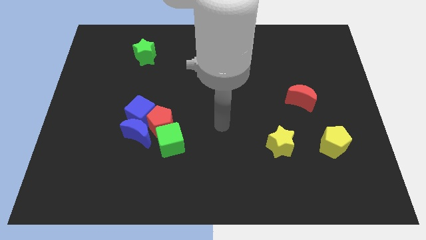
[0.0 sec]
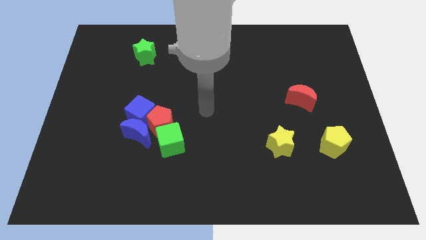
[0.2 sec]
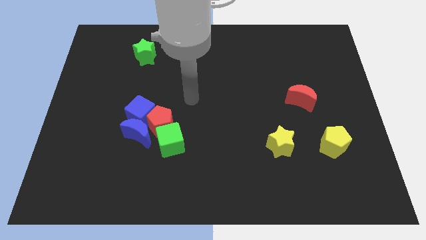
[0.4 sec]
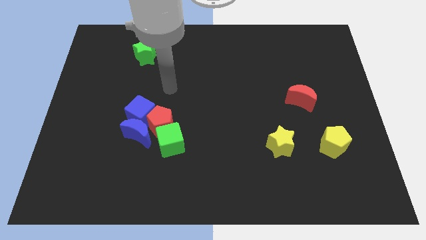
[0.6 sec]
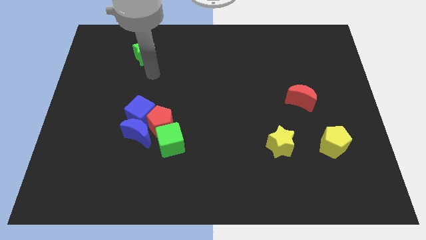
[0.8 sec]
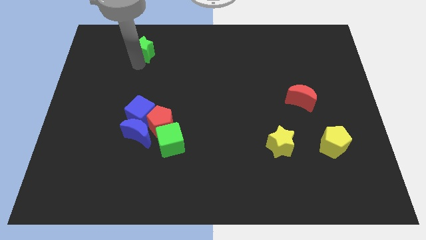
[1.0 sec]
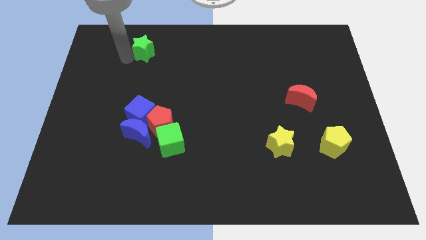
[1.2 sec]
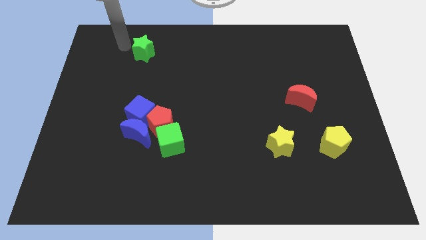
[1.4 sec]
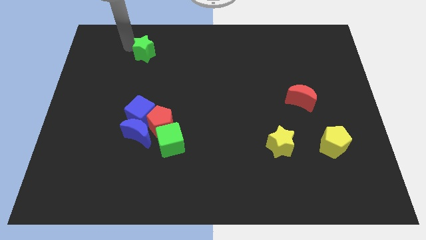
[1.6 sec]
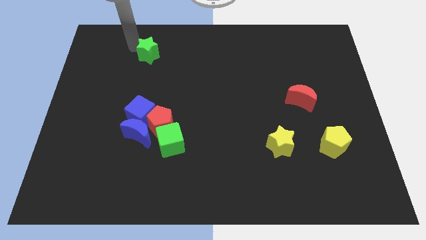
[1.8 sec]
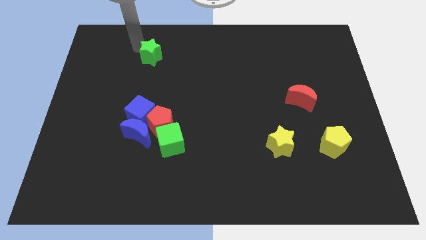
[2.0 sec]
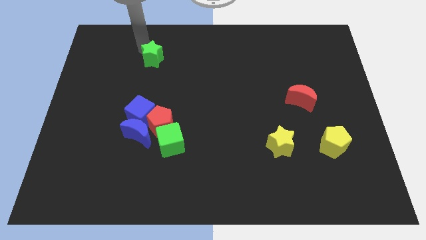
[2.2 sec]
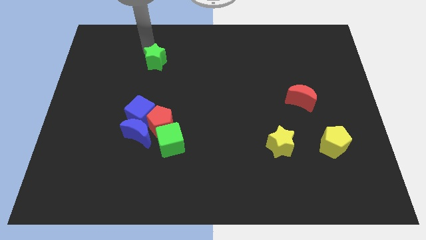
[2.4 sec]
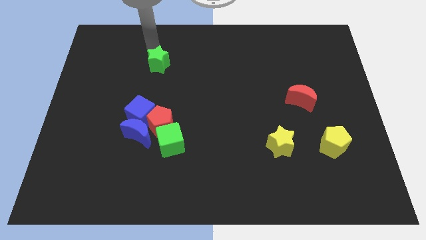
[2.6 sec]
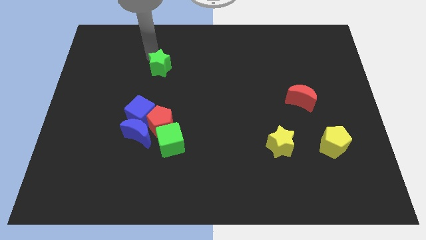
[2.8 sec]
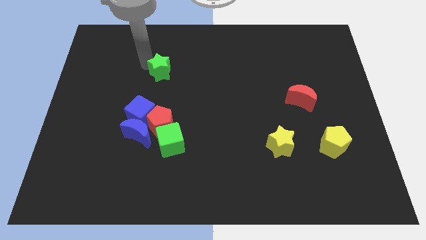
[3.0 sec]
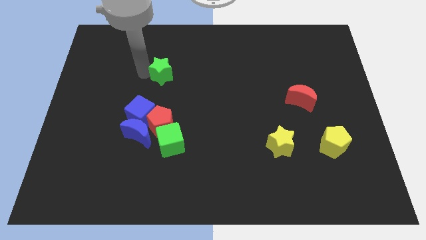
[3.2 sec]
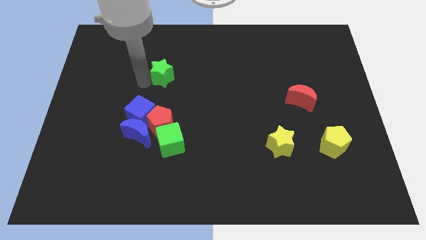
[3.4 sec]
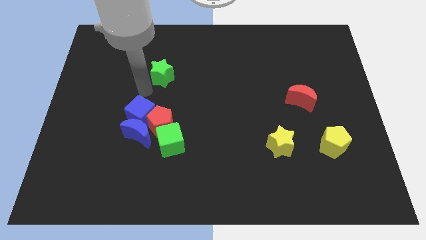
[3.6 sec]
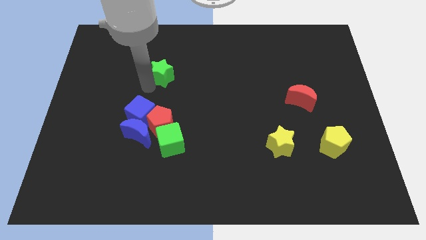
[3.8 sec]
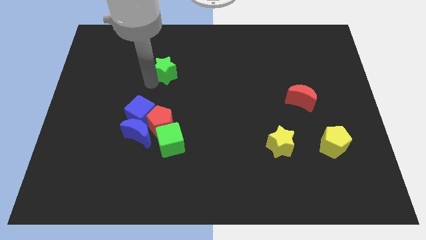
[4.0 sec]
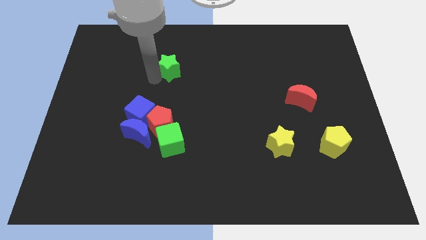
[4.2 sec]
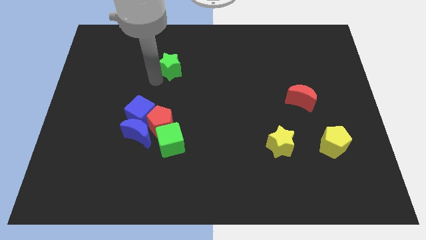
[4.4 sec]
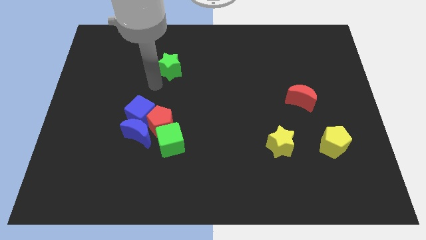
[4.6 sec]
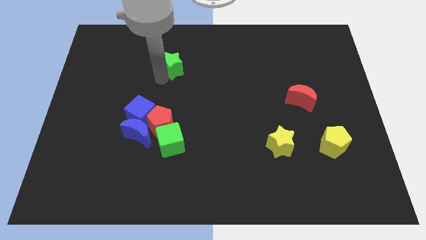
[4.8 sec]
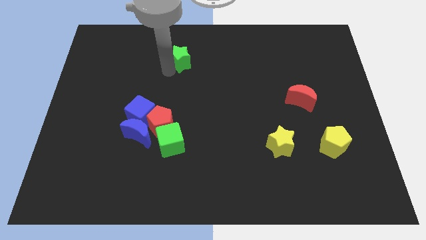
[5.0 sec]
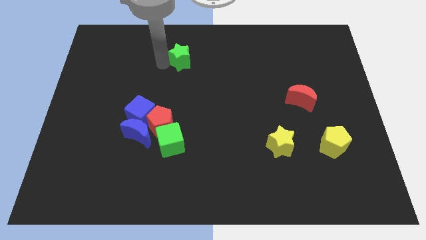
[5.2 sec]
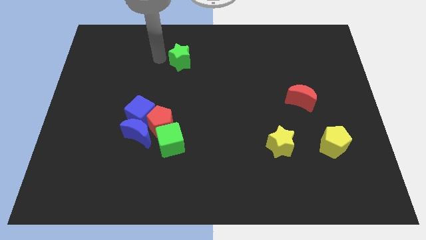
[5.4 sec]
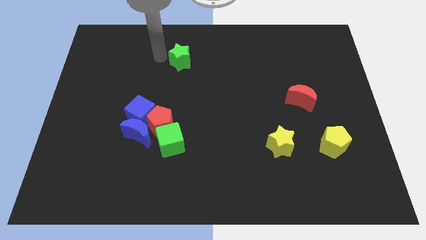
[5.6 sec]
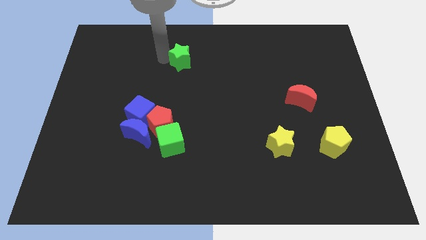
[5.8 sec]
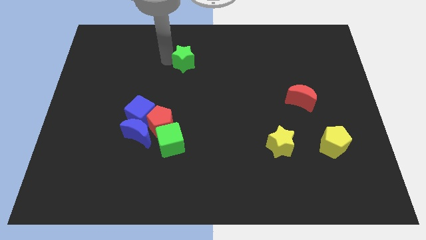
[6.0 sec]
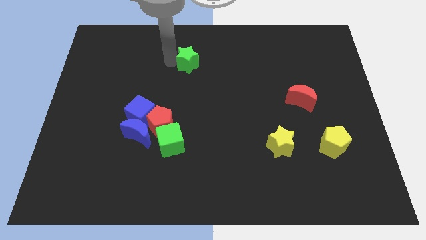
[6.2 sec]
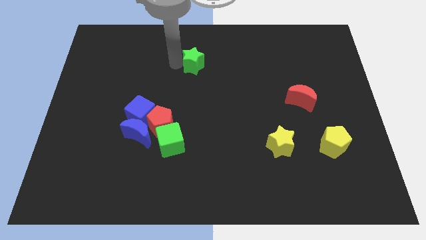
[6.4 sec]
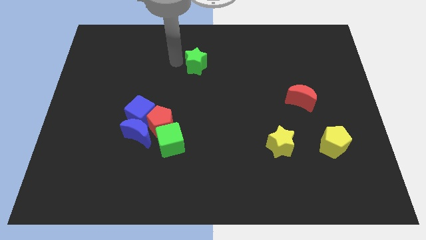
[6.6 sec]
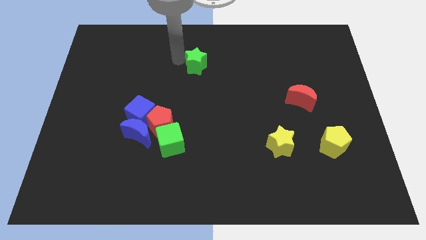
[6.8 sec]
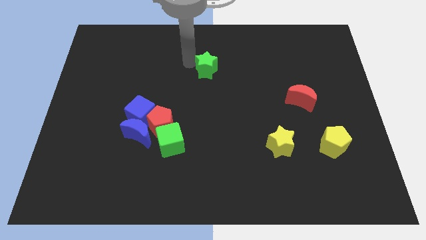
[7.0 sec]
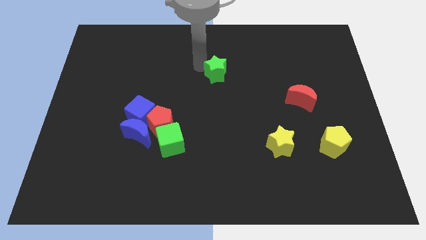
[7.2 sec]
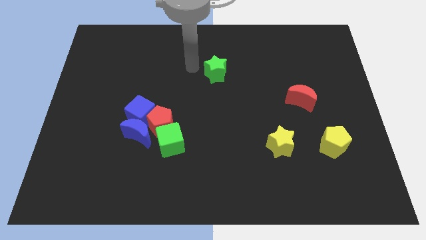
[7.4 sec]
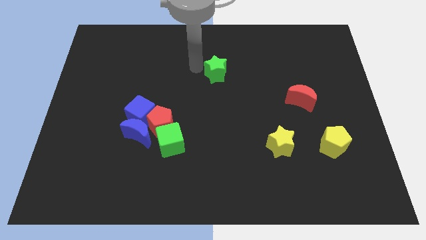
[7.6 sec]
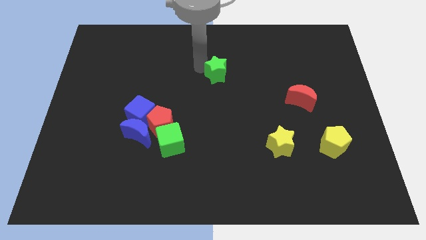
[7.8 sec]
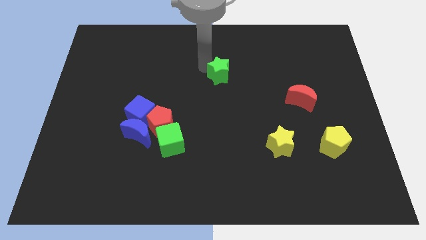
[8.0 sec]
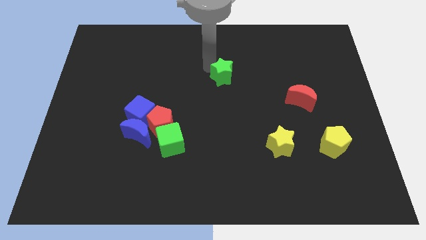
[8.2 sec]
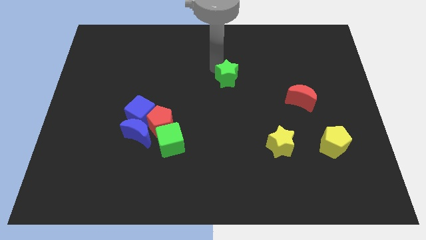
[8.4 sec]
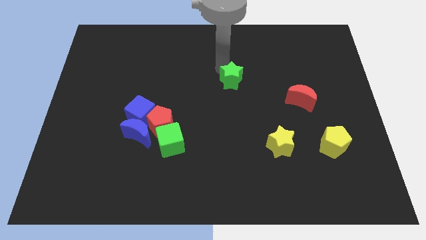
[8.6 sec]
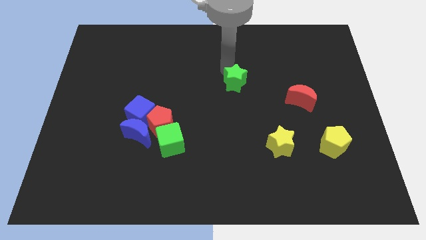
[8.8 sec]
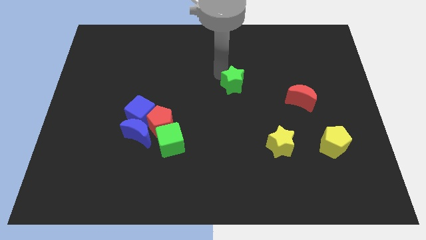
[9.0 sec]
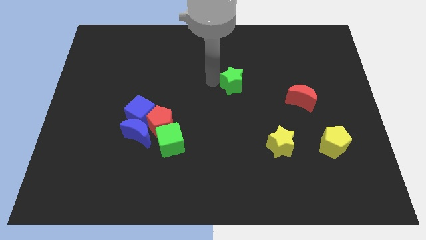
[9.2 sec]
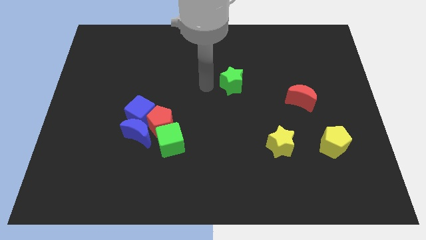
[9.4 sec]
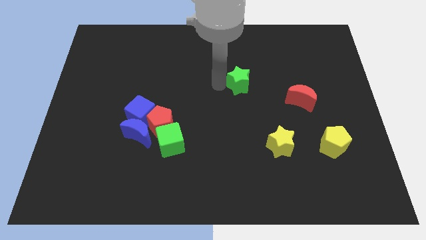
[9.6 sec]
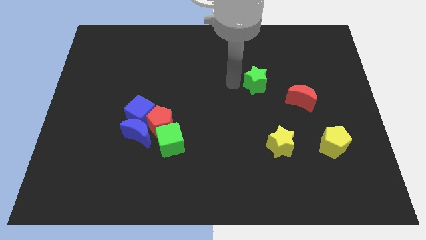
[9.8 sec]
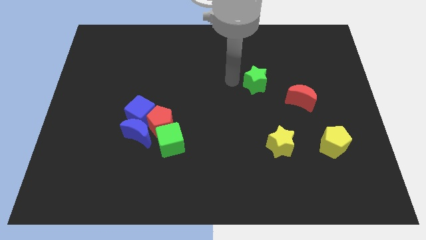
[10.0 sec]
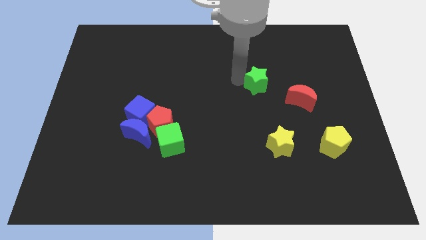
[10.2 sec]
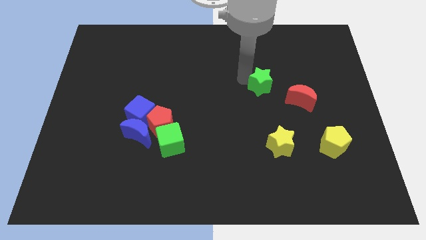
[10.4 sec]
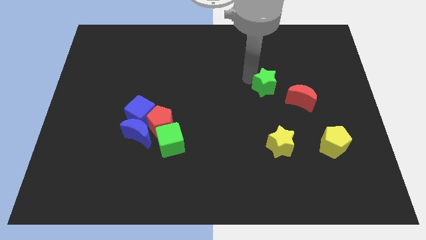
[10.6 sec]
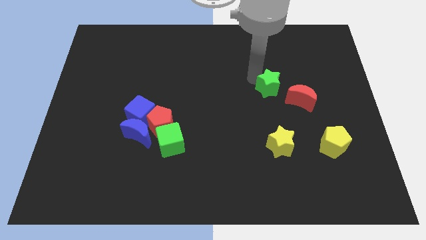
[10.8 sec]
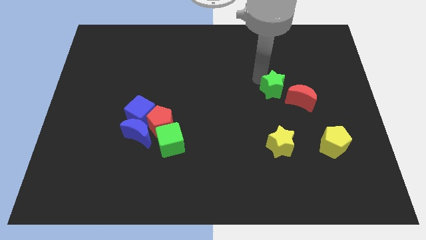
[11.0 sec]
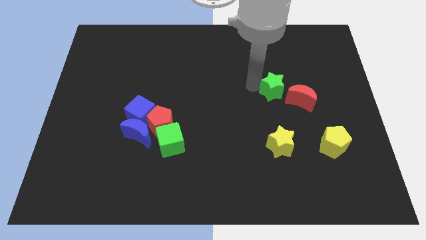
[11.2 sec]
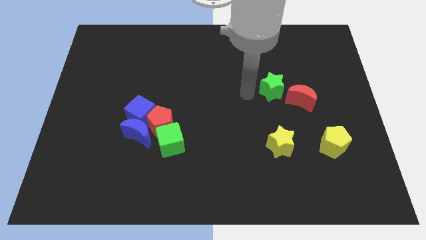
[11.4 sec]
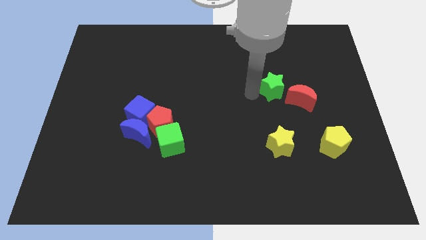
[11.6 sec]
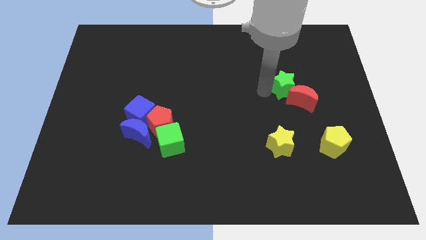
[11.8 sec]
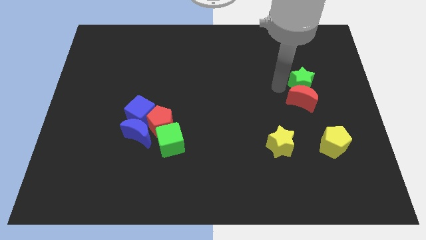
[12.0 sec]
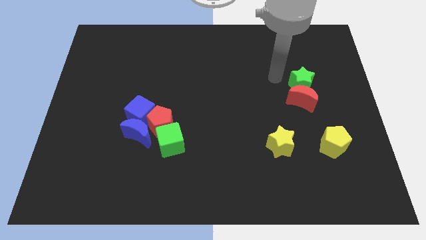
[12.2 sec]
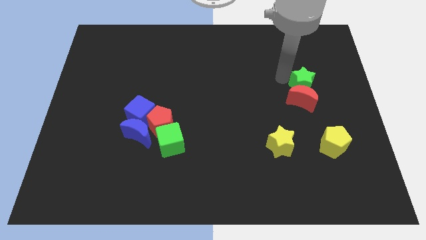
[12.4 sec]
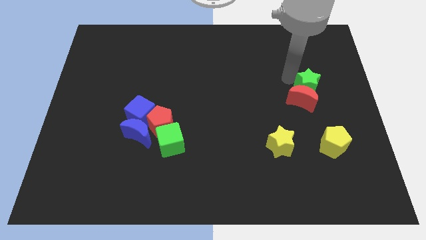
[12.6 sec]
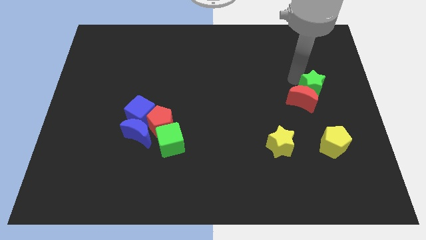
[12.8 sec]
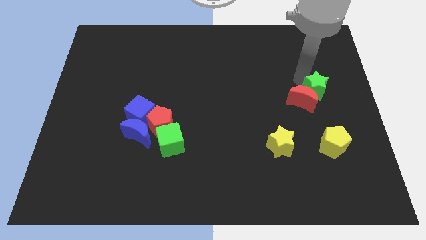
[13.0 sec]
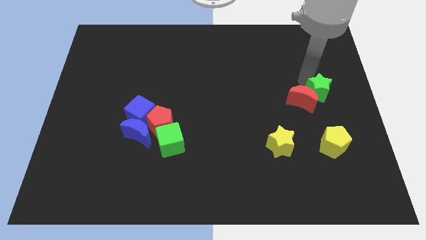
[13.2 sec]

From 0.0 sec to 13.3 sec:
push the green star to the right side
